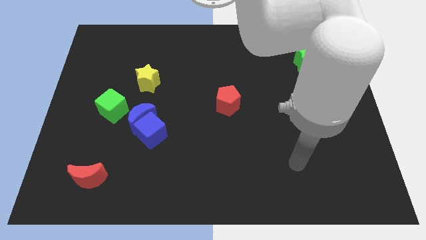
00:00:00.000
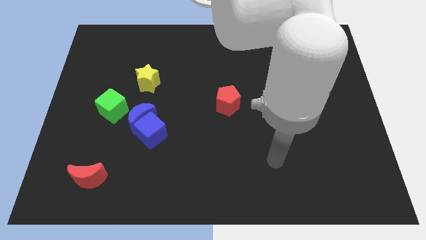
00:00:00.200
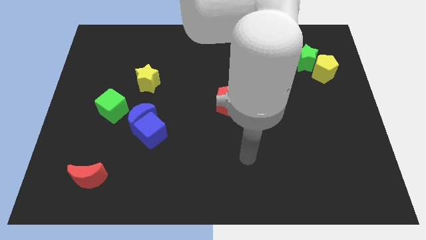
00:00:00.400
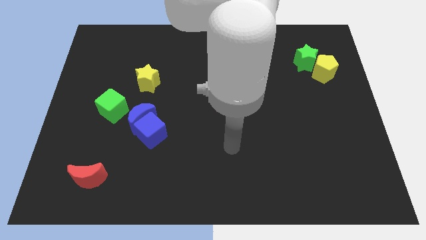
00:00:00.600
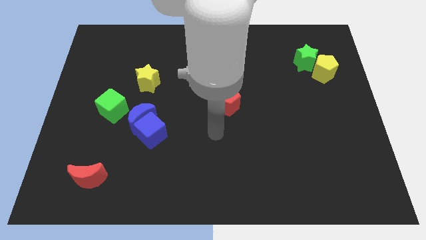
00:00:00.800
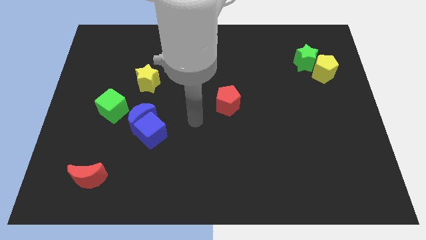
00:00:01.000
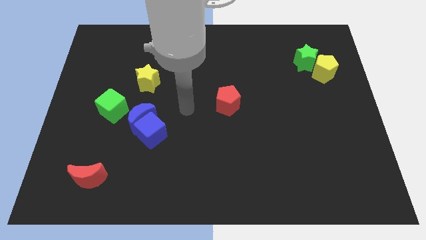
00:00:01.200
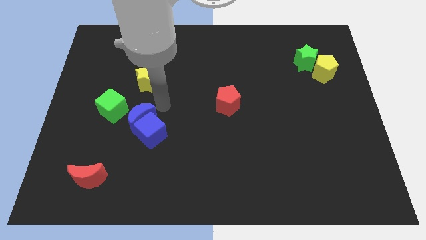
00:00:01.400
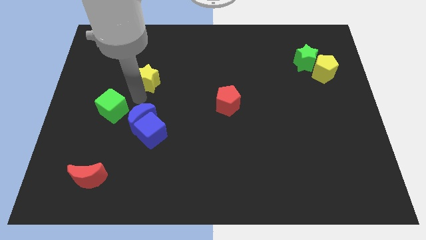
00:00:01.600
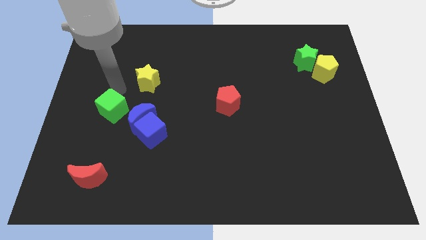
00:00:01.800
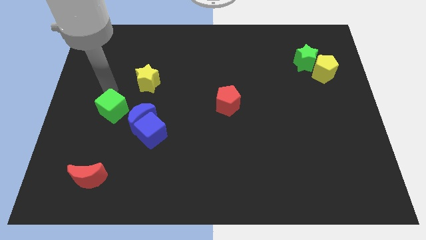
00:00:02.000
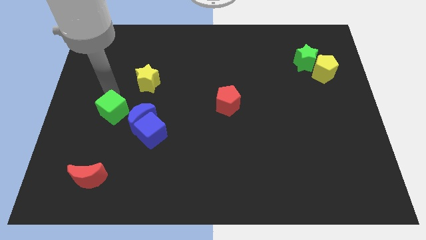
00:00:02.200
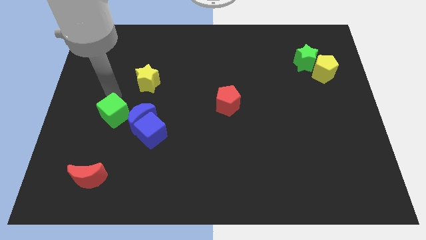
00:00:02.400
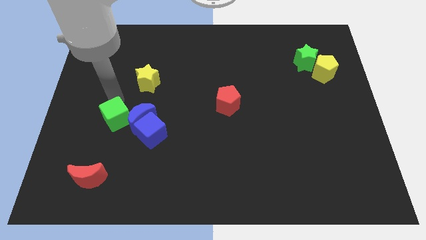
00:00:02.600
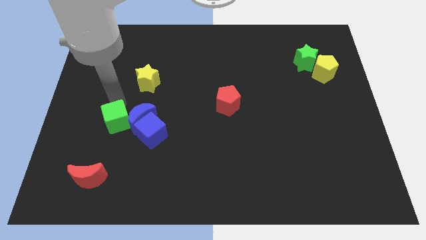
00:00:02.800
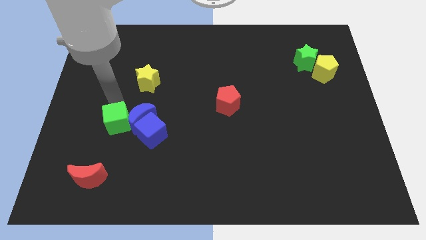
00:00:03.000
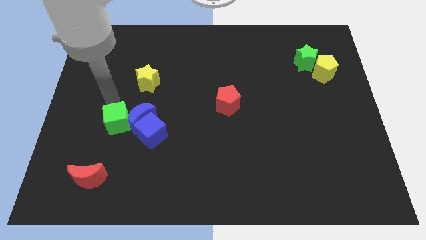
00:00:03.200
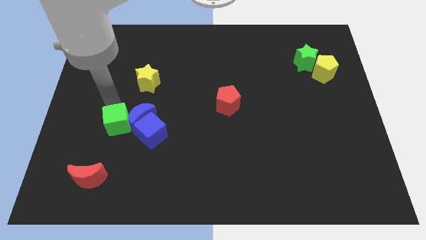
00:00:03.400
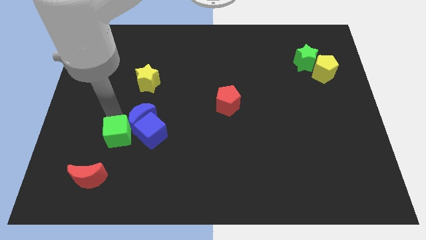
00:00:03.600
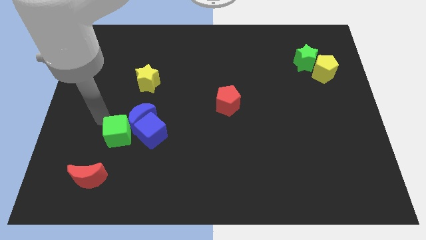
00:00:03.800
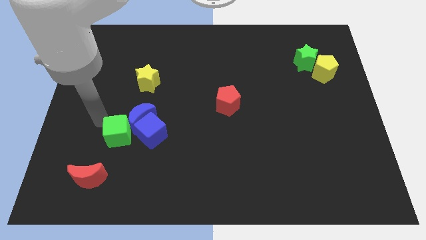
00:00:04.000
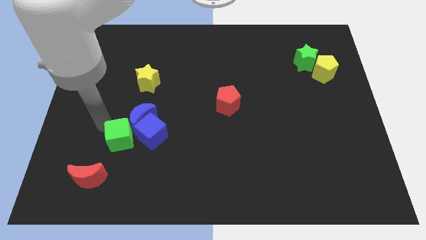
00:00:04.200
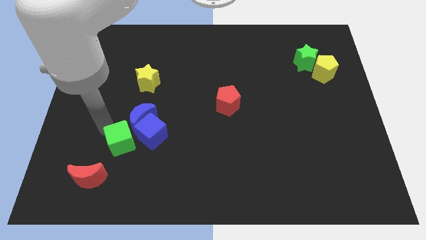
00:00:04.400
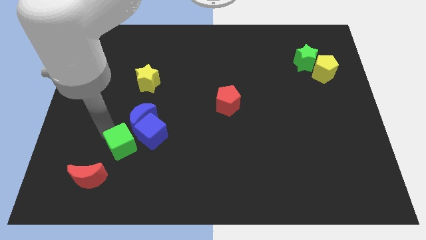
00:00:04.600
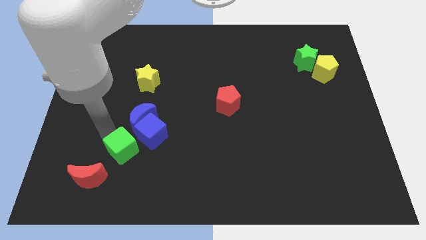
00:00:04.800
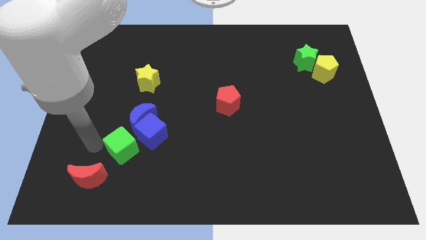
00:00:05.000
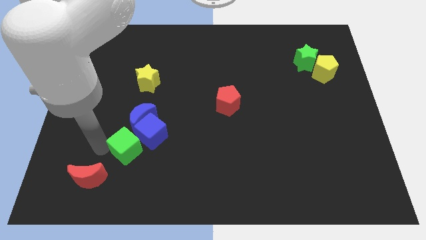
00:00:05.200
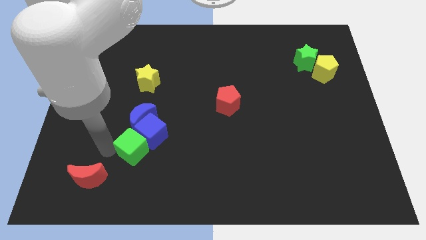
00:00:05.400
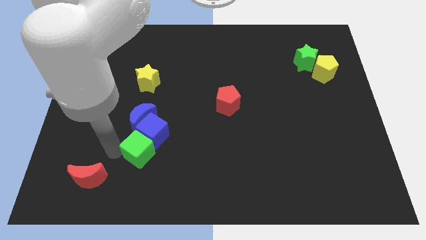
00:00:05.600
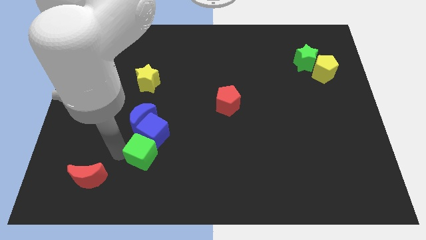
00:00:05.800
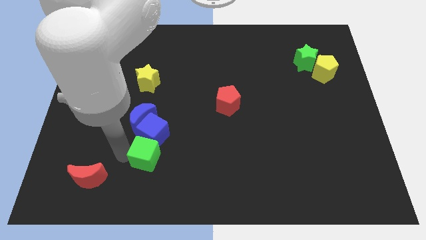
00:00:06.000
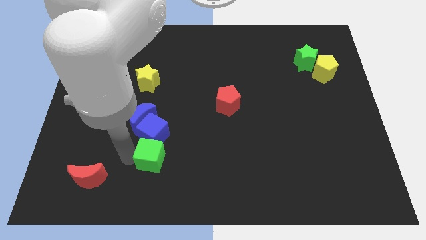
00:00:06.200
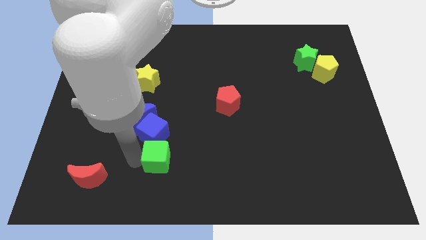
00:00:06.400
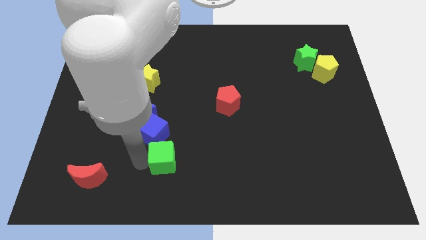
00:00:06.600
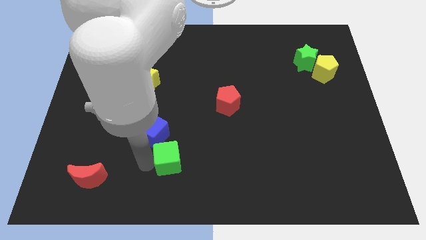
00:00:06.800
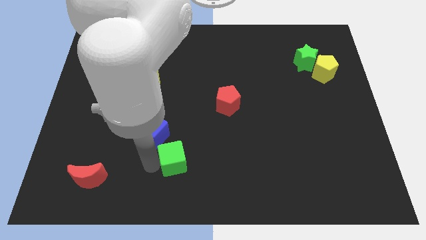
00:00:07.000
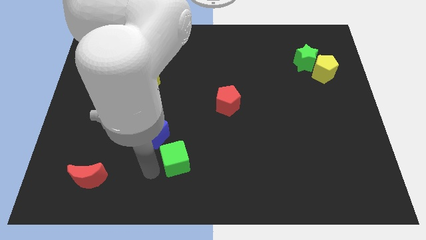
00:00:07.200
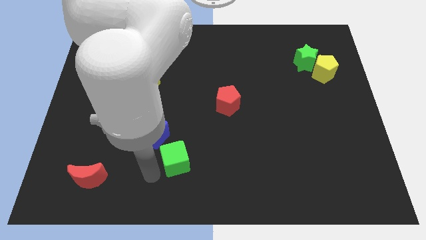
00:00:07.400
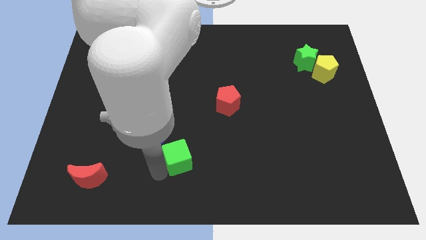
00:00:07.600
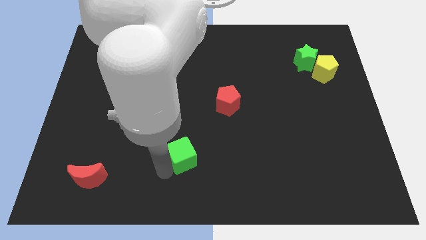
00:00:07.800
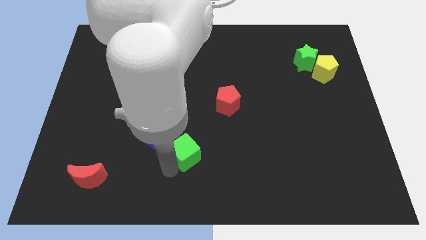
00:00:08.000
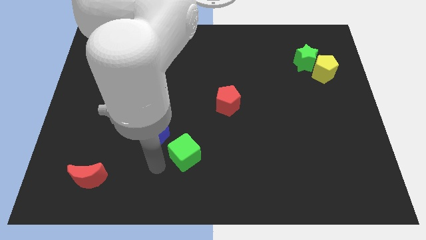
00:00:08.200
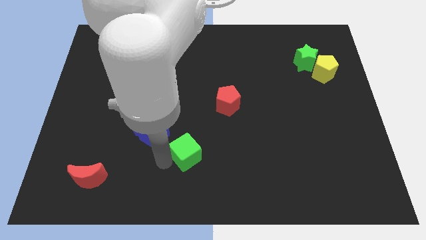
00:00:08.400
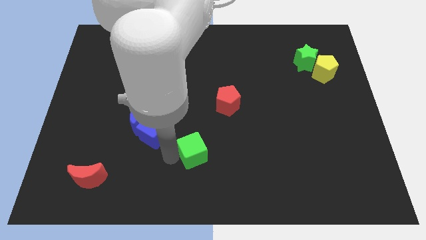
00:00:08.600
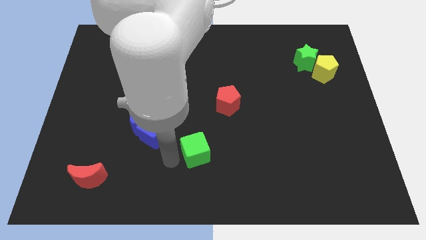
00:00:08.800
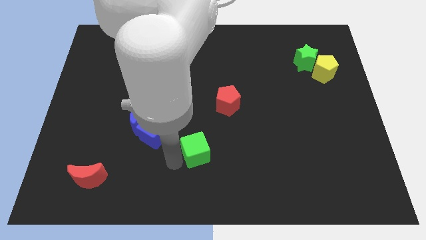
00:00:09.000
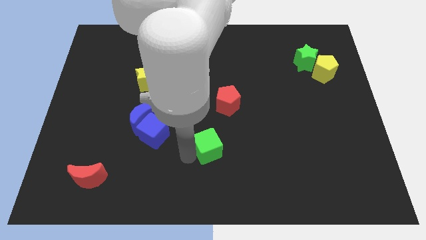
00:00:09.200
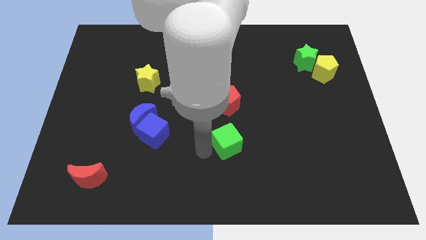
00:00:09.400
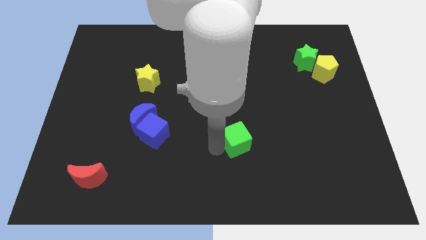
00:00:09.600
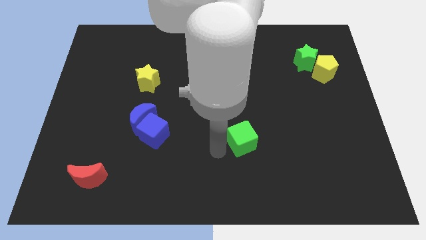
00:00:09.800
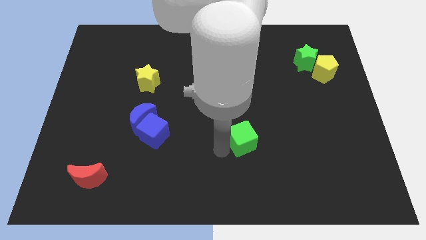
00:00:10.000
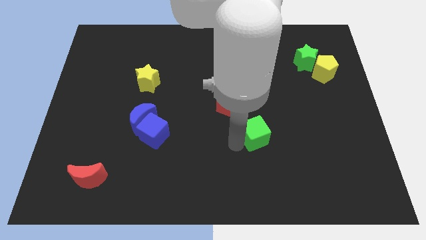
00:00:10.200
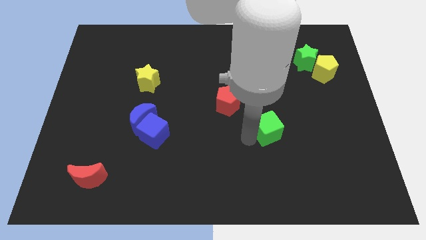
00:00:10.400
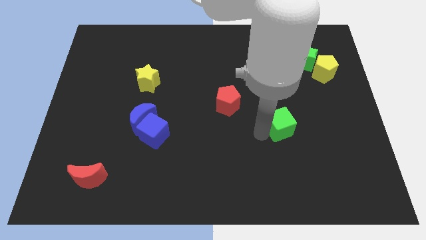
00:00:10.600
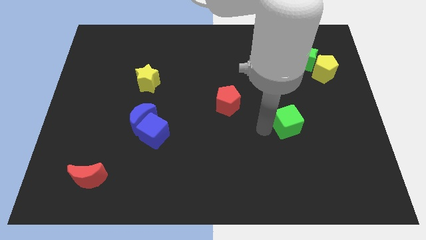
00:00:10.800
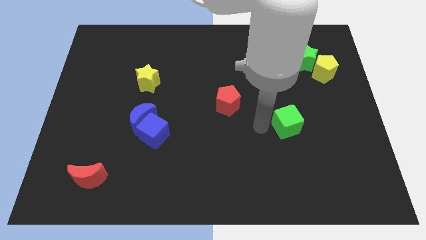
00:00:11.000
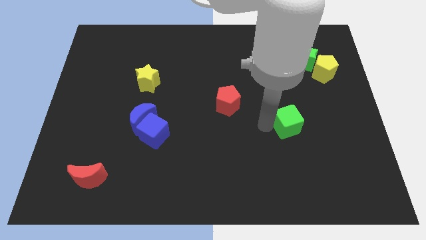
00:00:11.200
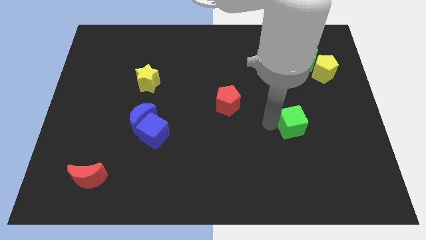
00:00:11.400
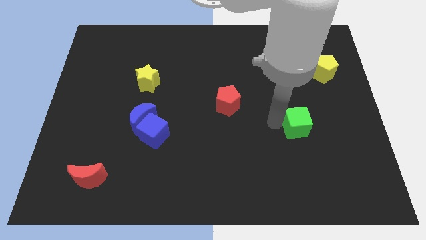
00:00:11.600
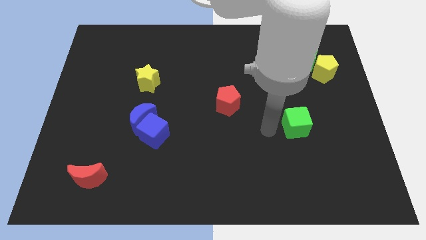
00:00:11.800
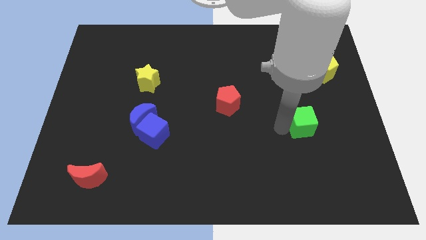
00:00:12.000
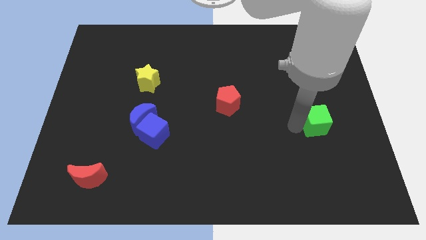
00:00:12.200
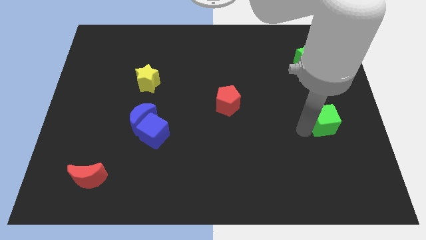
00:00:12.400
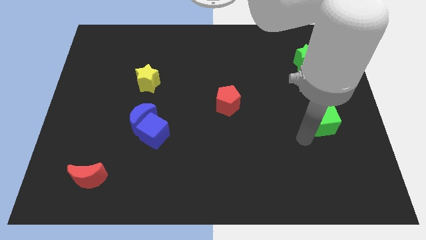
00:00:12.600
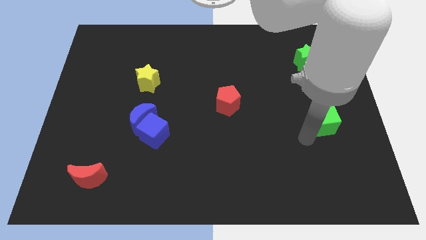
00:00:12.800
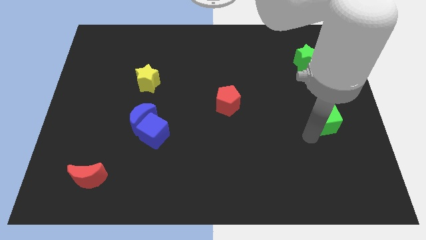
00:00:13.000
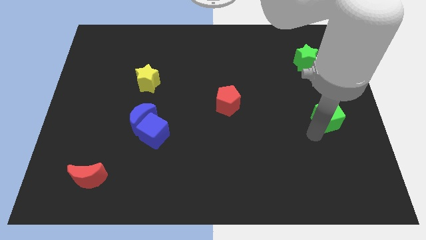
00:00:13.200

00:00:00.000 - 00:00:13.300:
slide the green cube to the right side
